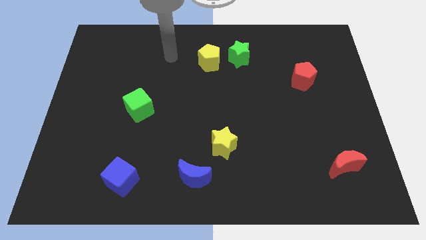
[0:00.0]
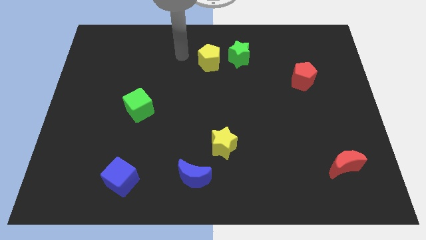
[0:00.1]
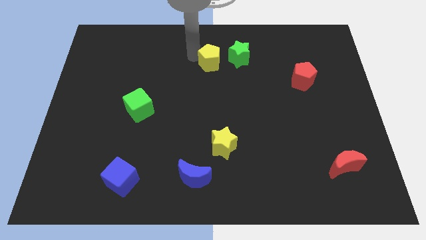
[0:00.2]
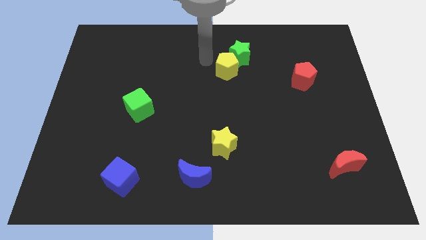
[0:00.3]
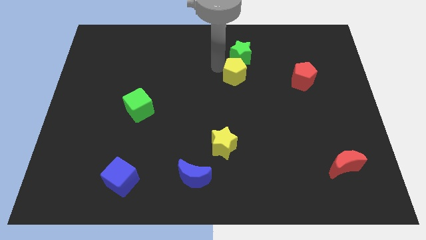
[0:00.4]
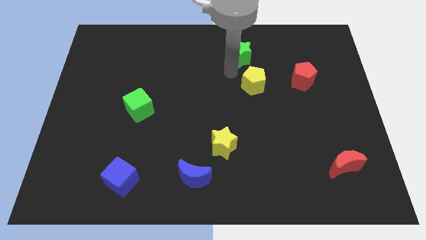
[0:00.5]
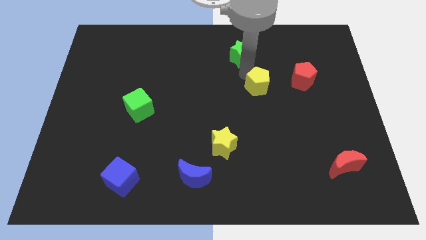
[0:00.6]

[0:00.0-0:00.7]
pull the green star apart from the yellow pentagon

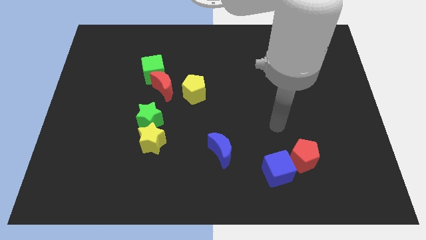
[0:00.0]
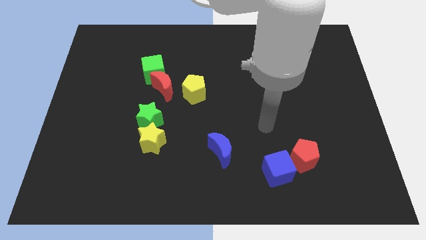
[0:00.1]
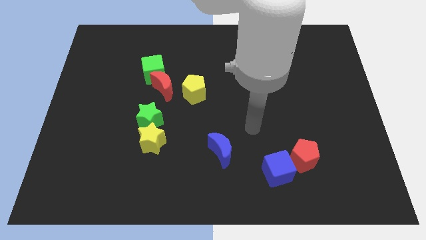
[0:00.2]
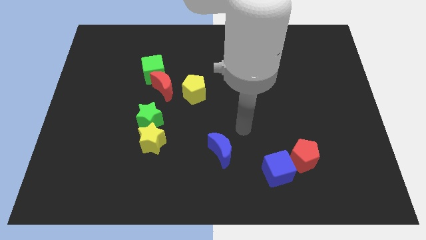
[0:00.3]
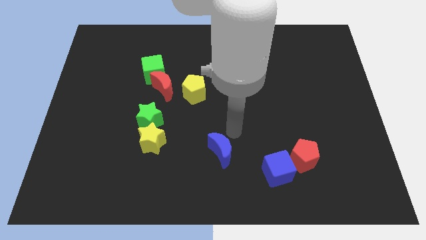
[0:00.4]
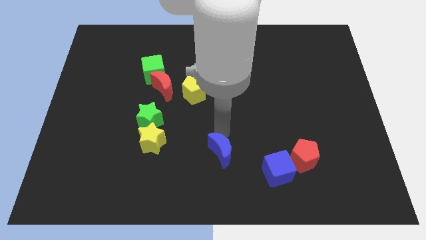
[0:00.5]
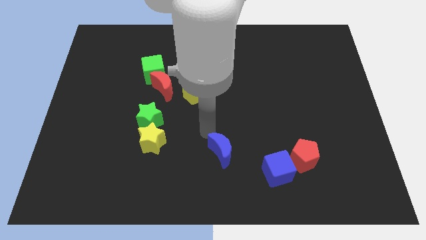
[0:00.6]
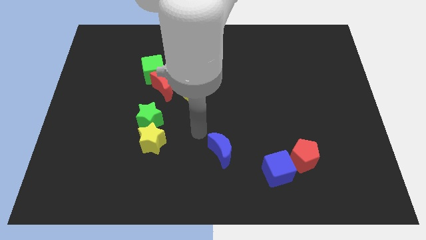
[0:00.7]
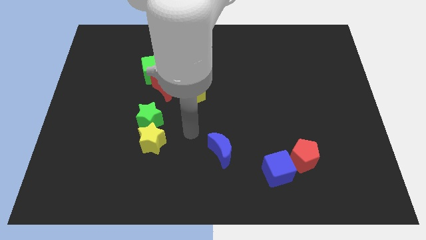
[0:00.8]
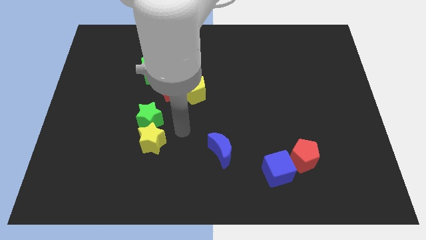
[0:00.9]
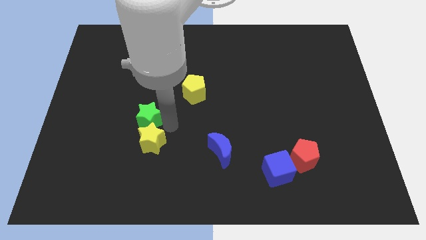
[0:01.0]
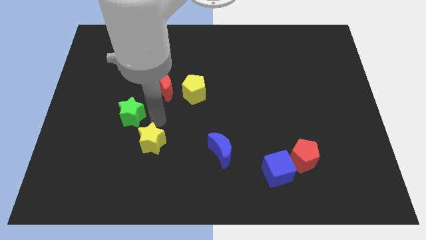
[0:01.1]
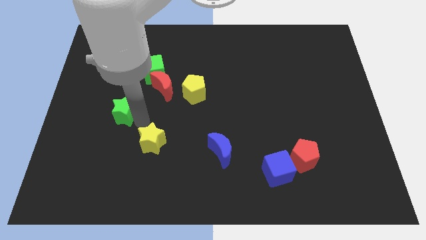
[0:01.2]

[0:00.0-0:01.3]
move the yellow star away from the green star

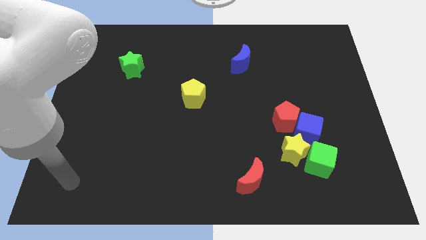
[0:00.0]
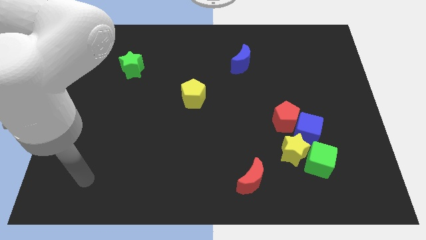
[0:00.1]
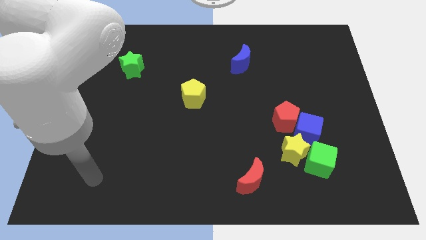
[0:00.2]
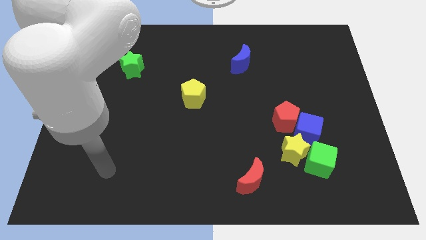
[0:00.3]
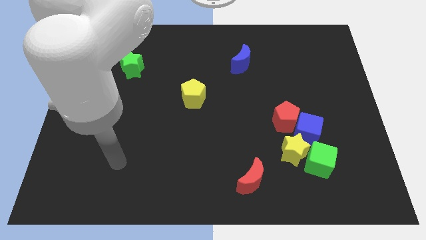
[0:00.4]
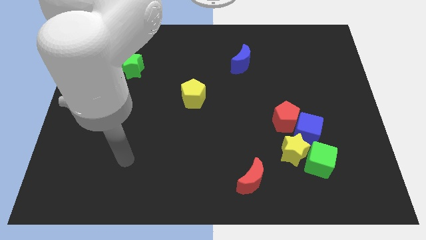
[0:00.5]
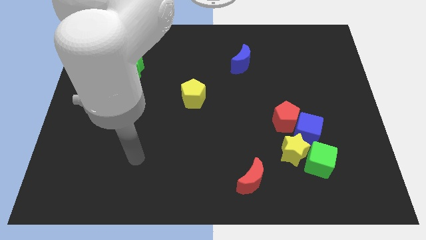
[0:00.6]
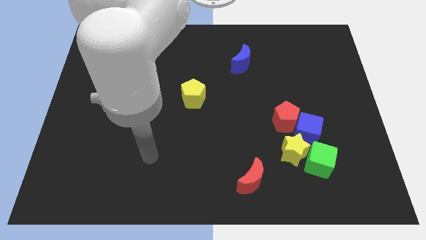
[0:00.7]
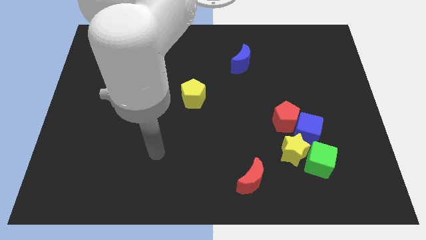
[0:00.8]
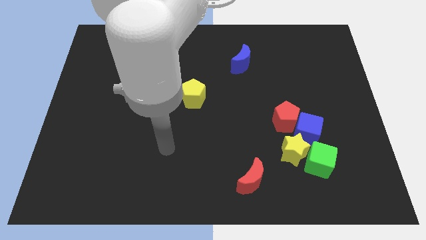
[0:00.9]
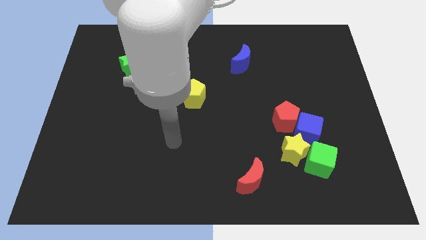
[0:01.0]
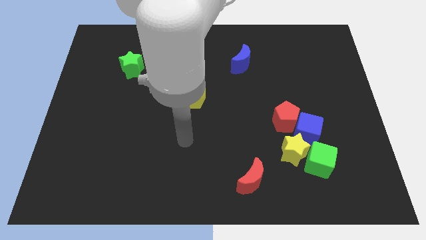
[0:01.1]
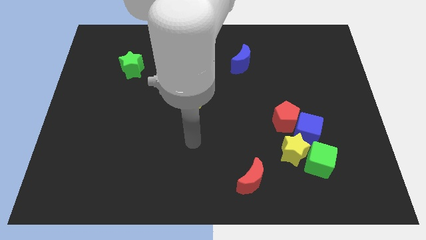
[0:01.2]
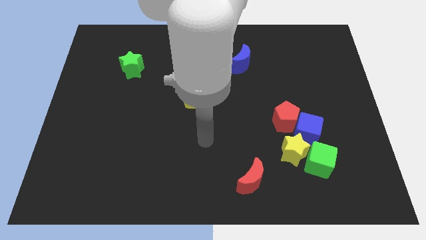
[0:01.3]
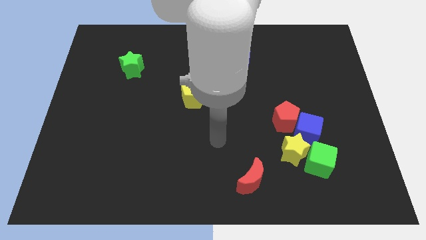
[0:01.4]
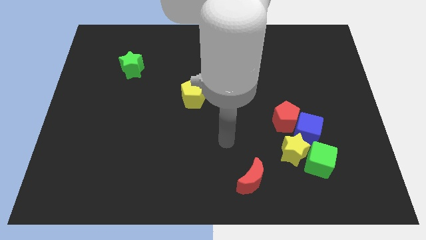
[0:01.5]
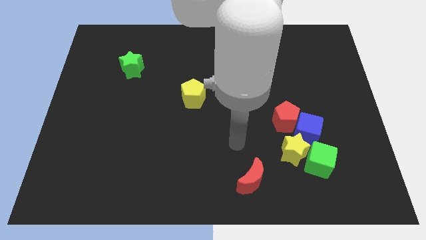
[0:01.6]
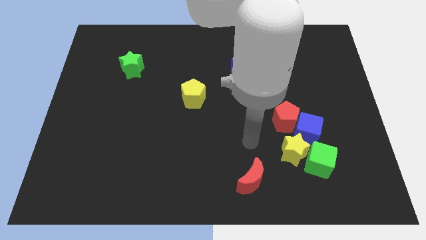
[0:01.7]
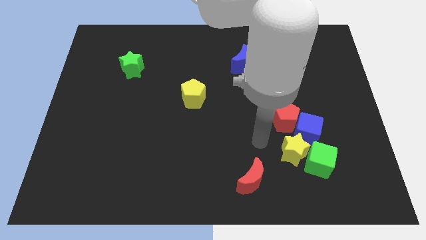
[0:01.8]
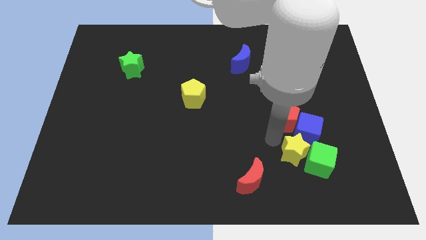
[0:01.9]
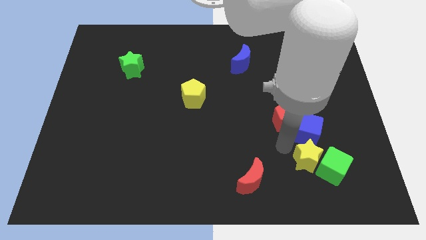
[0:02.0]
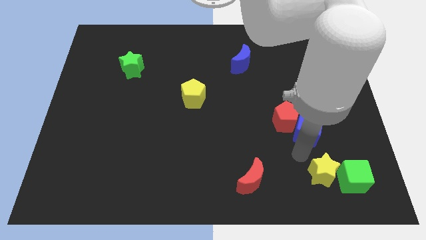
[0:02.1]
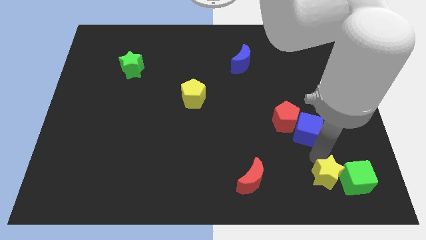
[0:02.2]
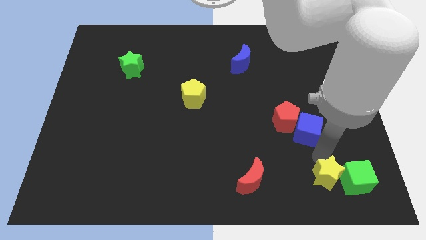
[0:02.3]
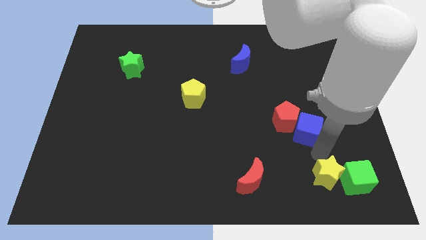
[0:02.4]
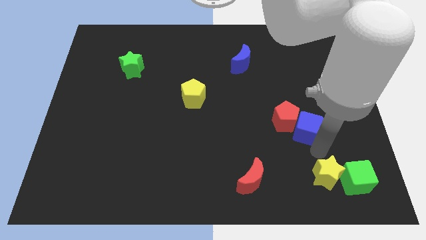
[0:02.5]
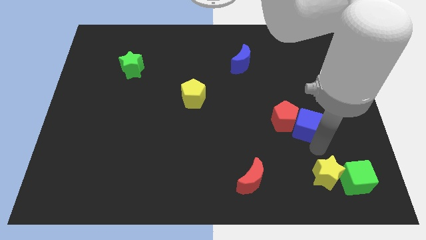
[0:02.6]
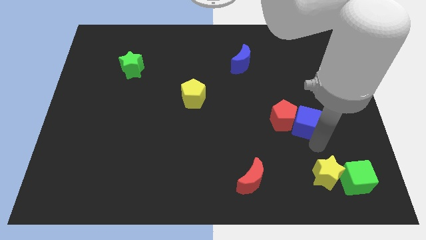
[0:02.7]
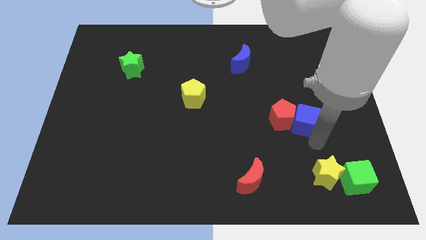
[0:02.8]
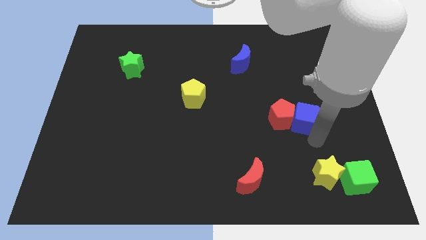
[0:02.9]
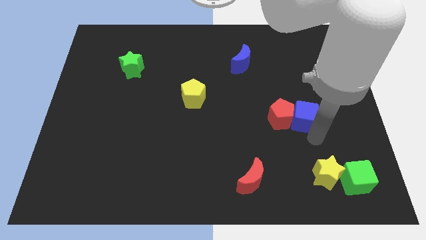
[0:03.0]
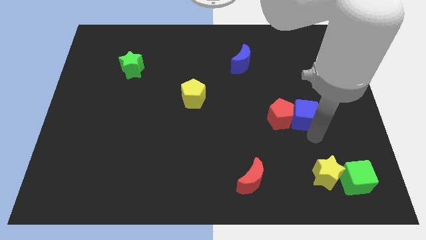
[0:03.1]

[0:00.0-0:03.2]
move the blue cube away from the clump

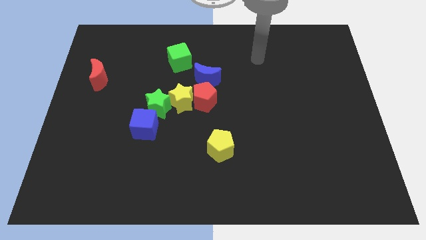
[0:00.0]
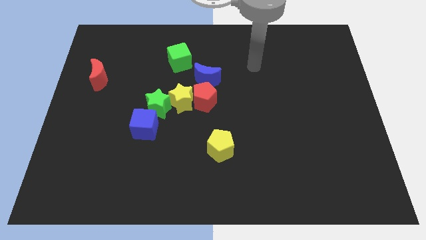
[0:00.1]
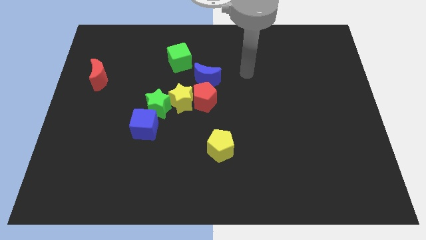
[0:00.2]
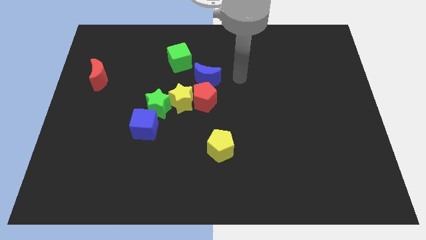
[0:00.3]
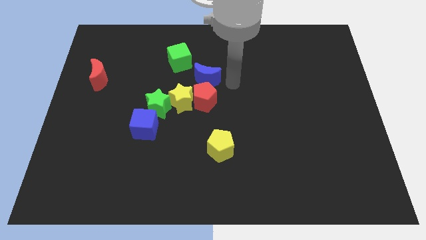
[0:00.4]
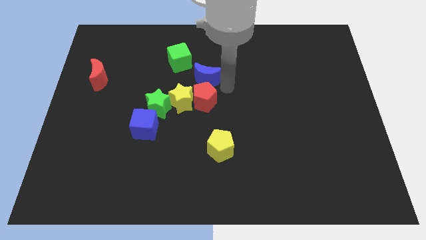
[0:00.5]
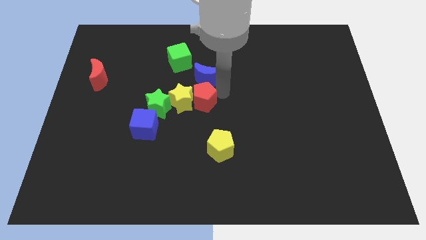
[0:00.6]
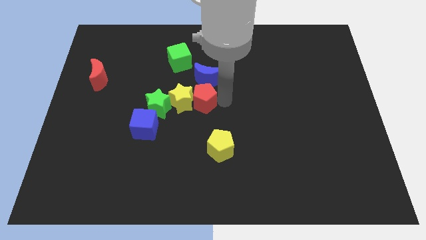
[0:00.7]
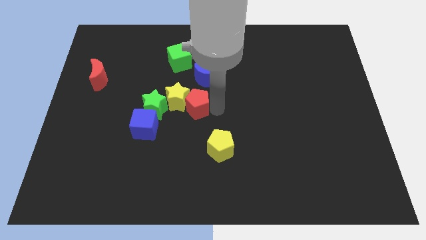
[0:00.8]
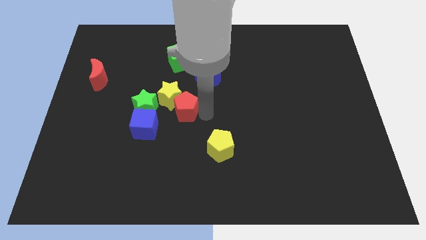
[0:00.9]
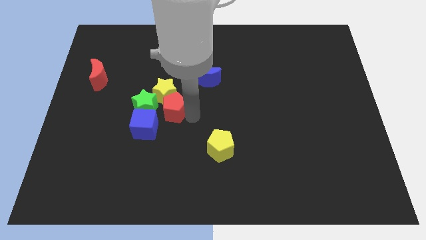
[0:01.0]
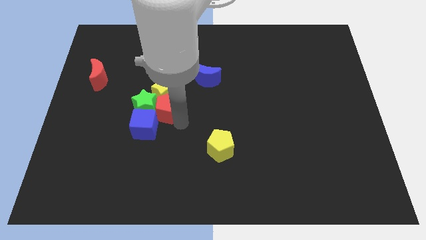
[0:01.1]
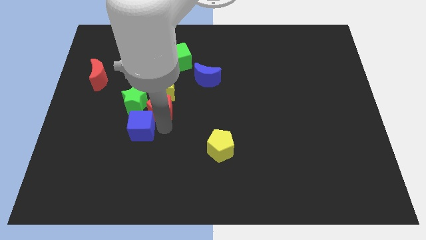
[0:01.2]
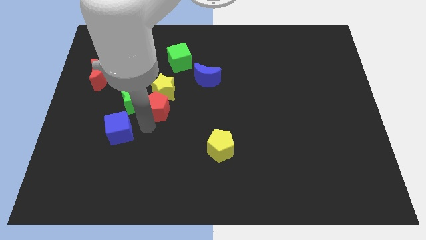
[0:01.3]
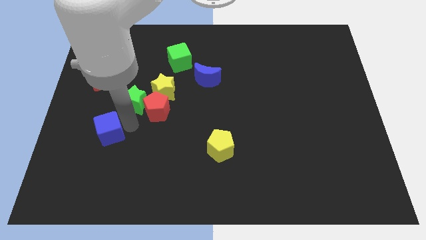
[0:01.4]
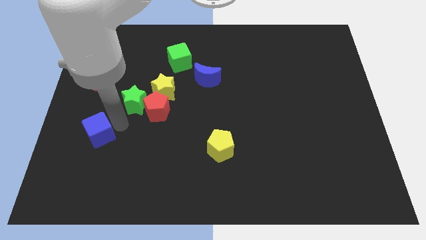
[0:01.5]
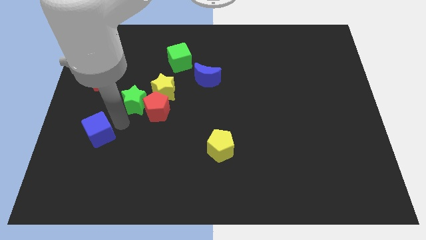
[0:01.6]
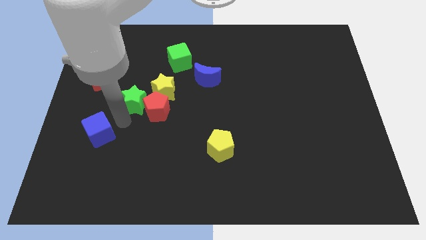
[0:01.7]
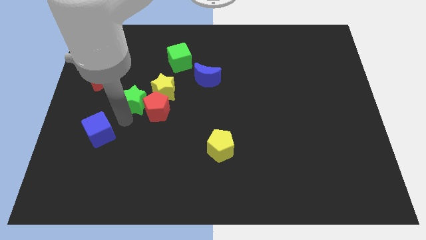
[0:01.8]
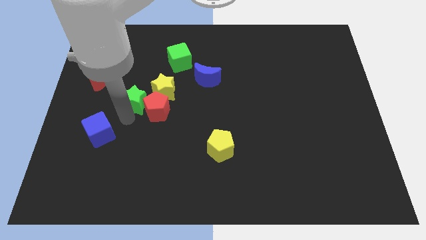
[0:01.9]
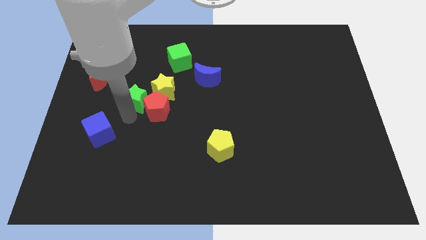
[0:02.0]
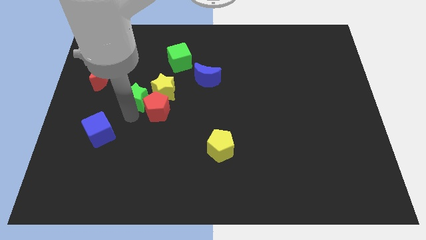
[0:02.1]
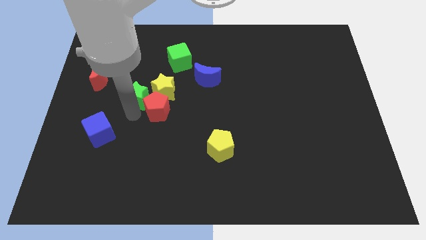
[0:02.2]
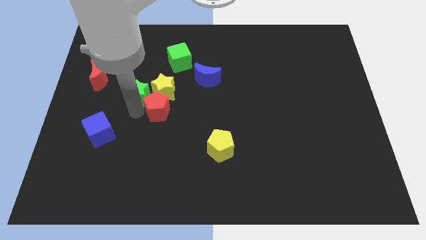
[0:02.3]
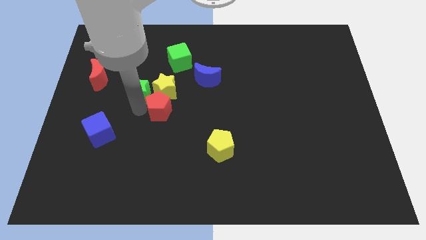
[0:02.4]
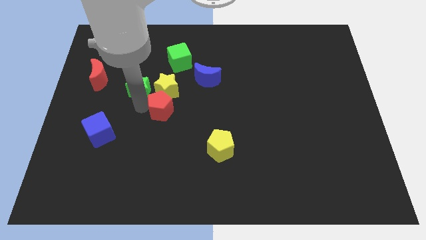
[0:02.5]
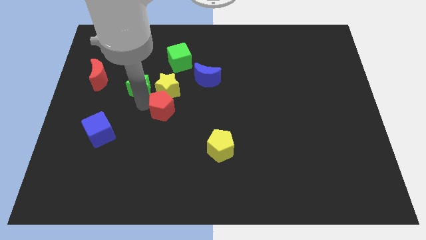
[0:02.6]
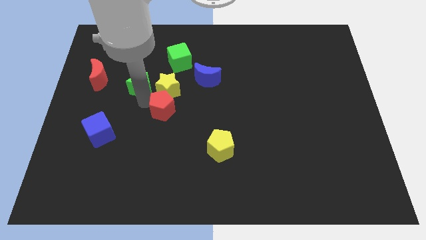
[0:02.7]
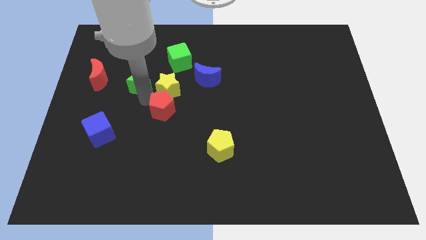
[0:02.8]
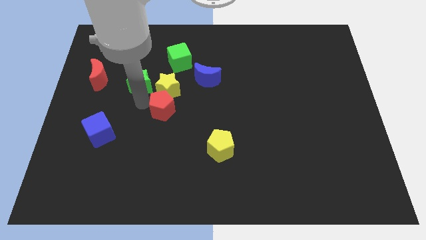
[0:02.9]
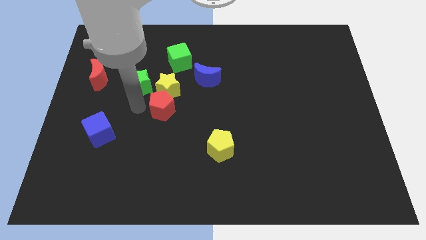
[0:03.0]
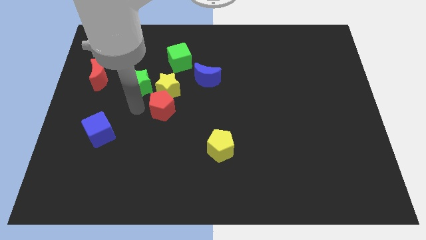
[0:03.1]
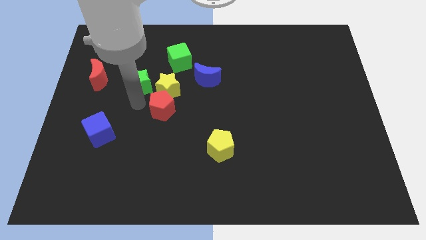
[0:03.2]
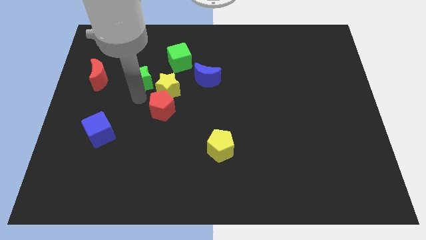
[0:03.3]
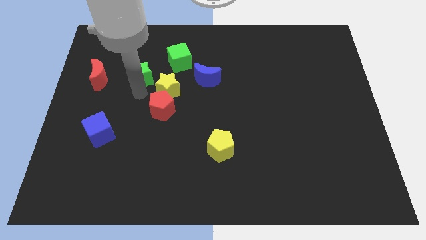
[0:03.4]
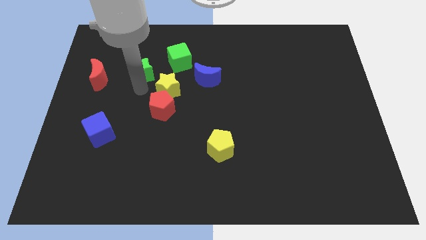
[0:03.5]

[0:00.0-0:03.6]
move the green star away from the yellow star and blue cube

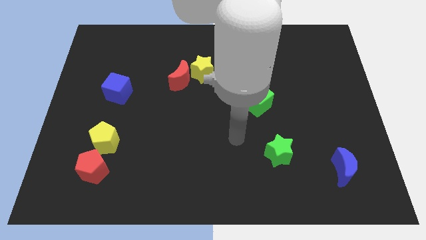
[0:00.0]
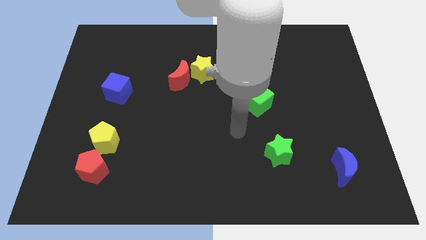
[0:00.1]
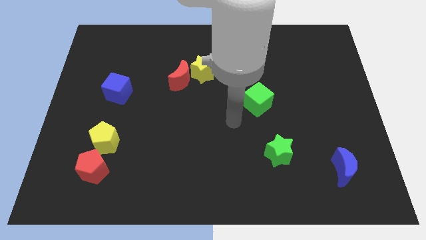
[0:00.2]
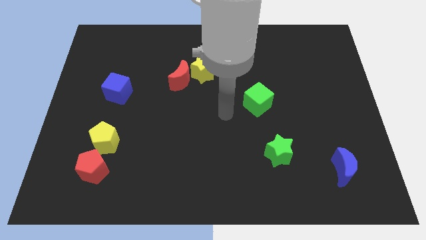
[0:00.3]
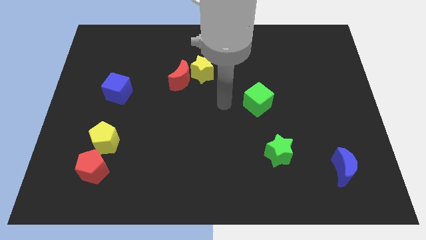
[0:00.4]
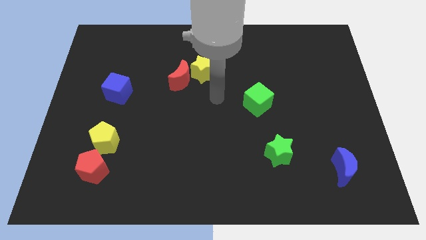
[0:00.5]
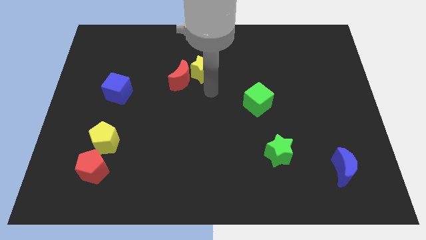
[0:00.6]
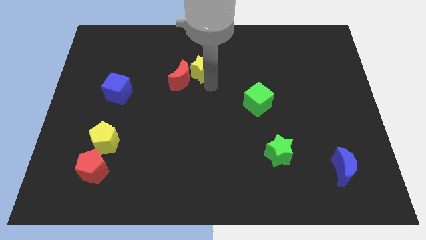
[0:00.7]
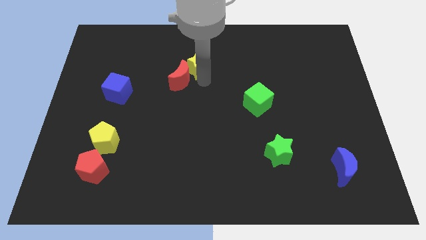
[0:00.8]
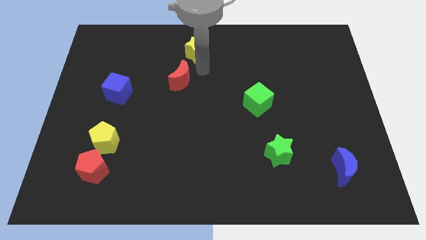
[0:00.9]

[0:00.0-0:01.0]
separate the red moon from the yellow star
